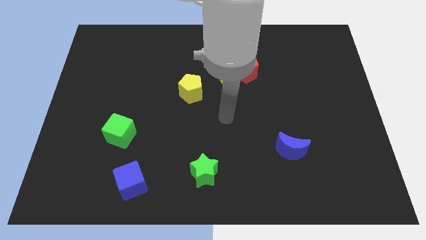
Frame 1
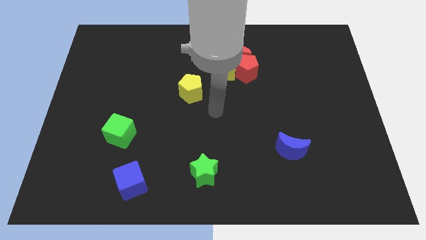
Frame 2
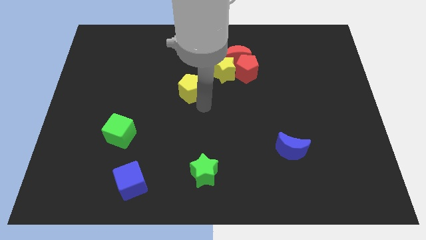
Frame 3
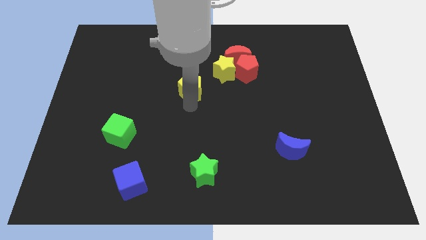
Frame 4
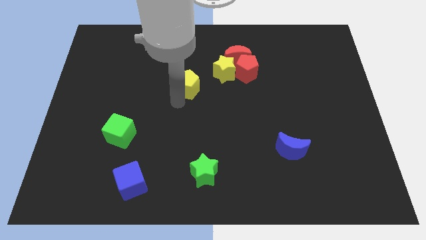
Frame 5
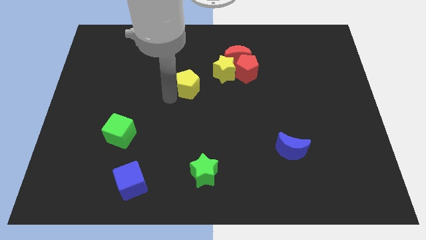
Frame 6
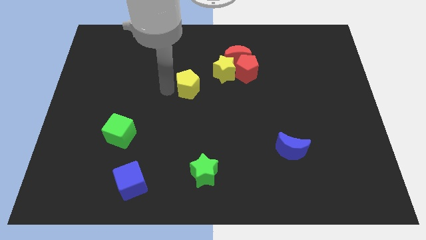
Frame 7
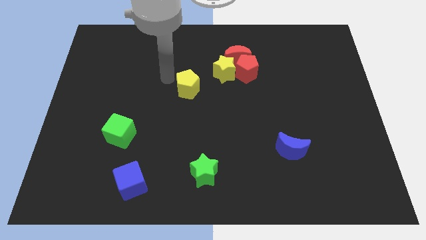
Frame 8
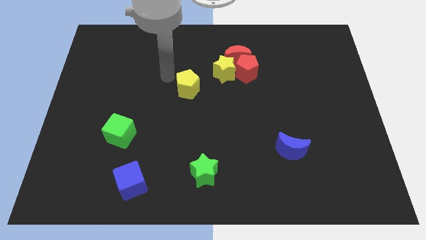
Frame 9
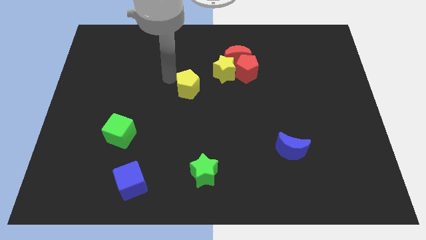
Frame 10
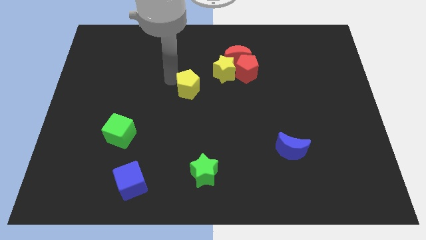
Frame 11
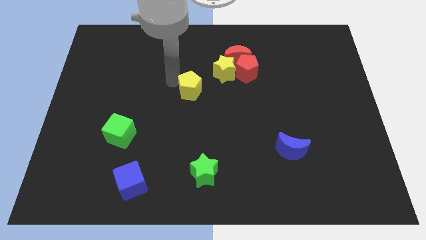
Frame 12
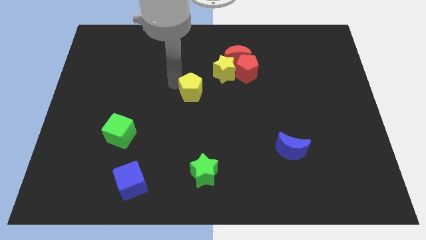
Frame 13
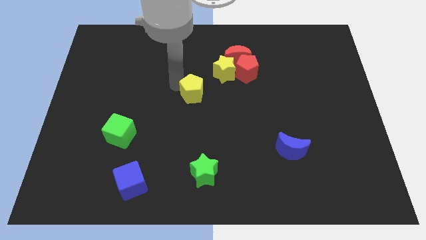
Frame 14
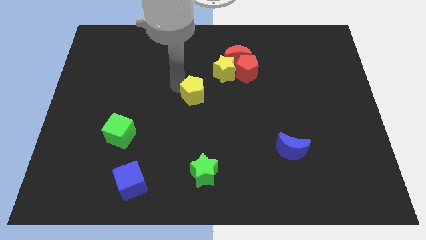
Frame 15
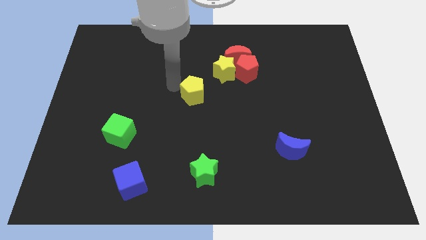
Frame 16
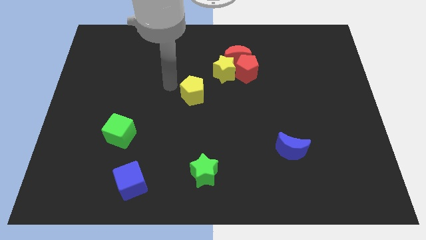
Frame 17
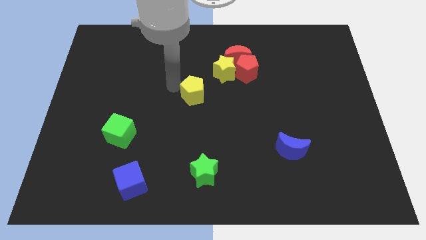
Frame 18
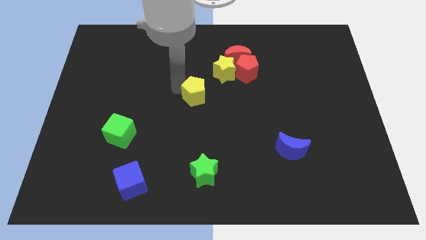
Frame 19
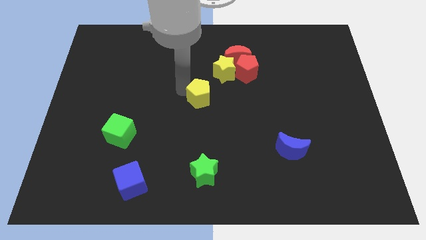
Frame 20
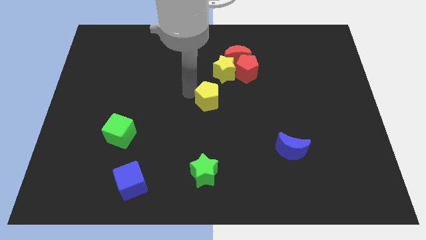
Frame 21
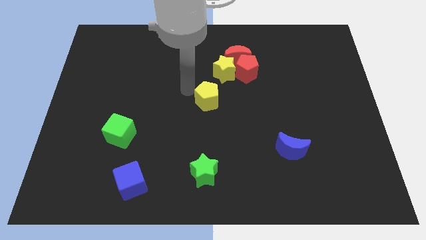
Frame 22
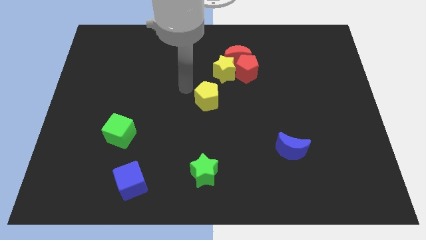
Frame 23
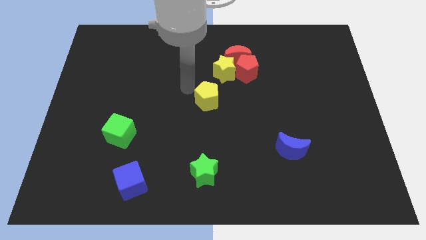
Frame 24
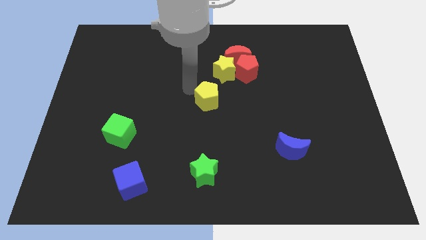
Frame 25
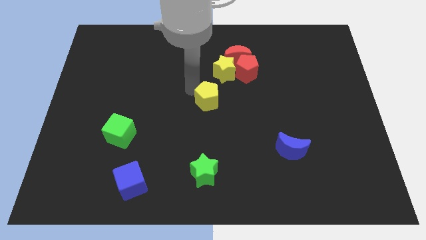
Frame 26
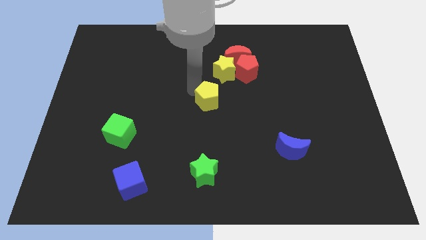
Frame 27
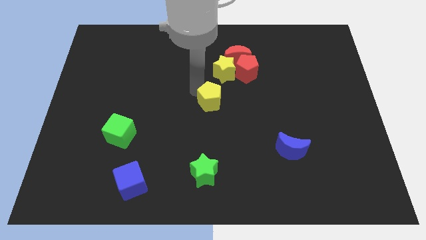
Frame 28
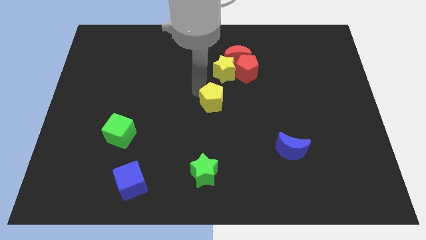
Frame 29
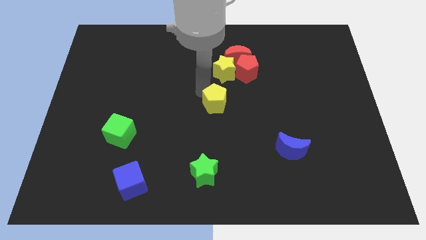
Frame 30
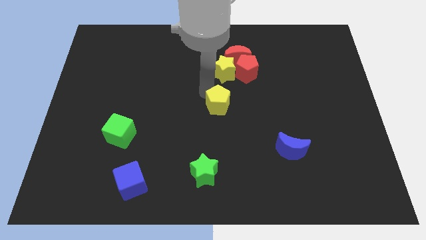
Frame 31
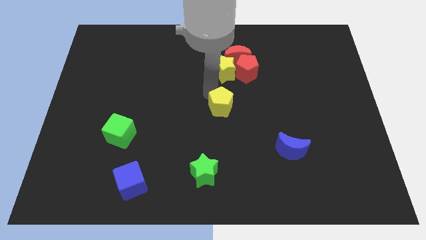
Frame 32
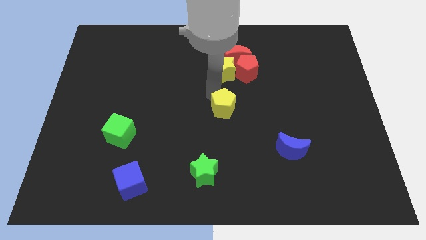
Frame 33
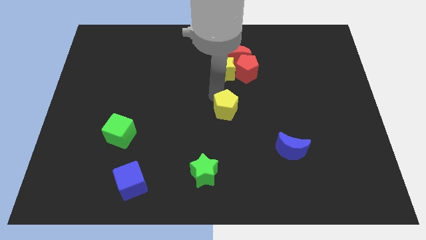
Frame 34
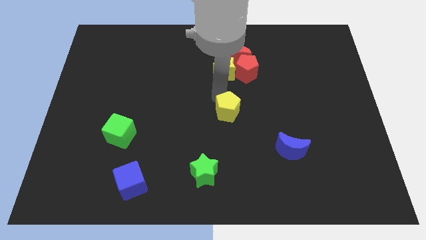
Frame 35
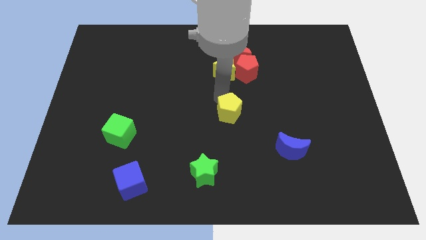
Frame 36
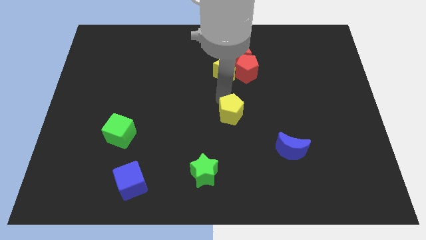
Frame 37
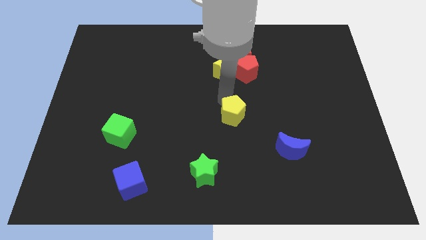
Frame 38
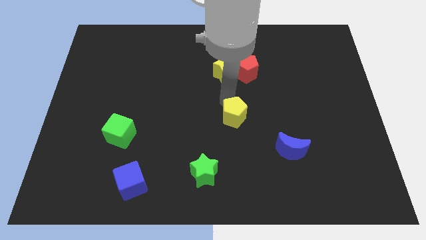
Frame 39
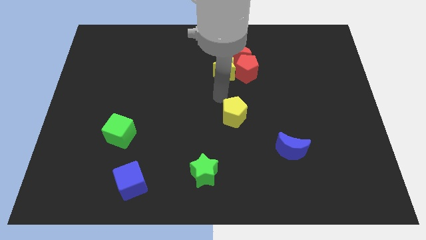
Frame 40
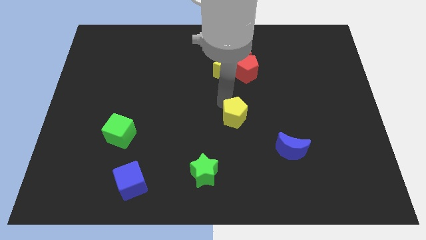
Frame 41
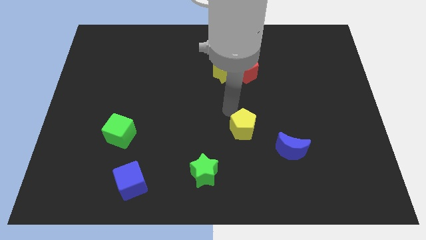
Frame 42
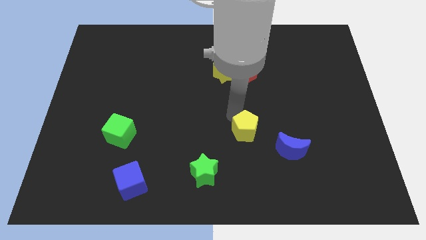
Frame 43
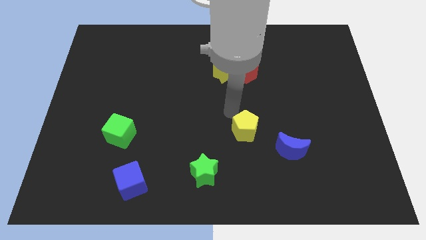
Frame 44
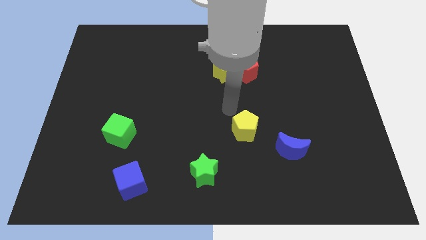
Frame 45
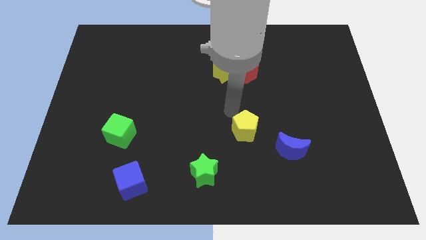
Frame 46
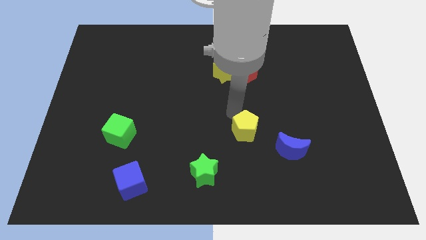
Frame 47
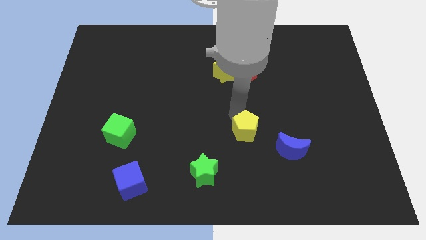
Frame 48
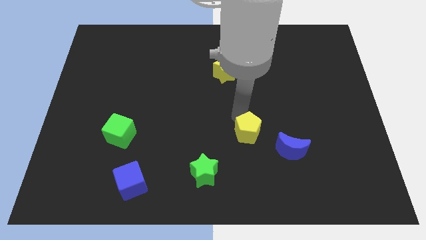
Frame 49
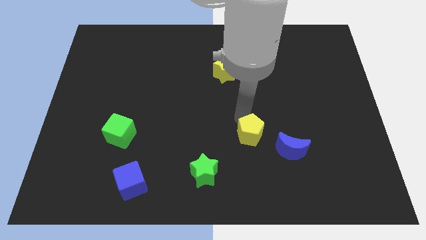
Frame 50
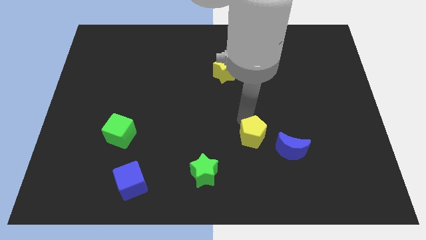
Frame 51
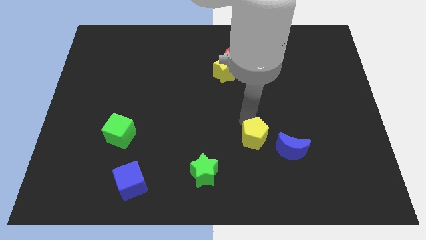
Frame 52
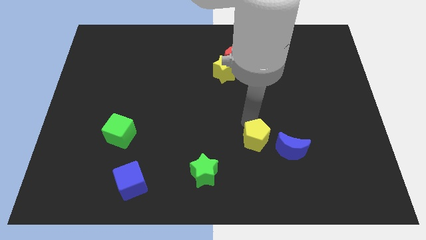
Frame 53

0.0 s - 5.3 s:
slide the yellow pentagon diagonally down and to the right

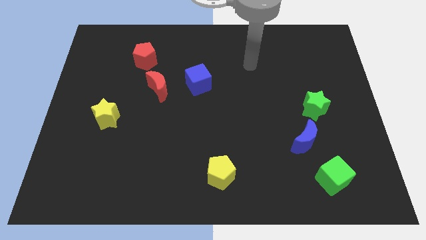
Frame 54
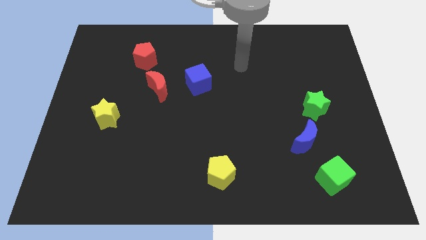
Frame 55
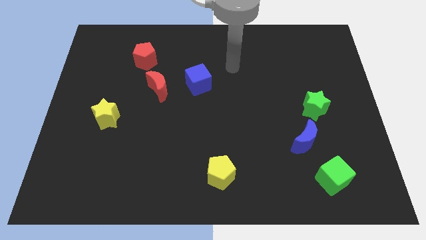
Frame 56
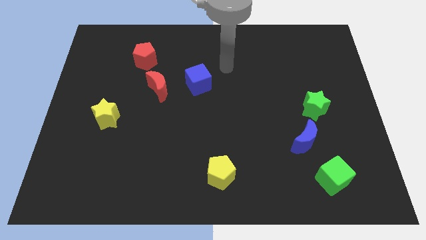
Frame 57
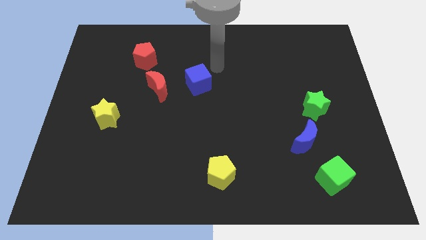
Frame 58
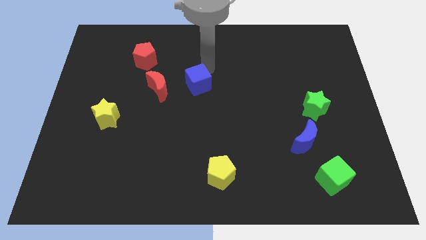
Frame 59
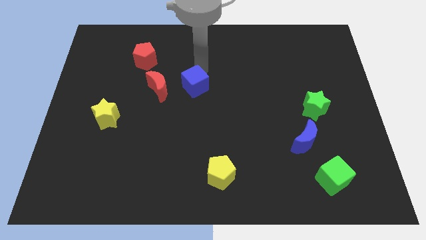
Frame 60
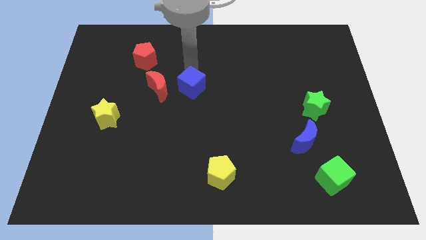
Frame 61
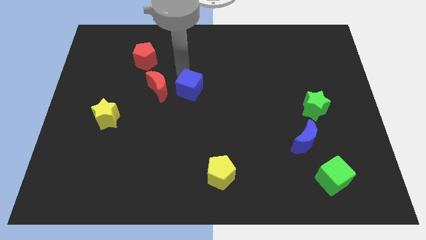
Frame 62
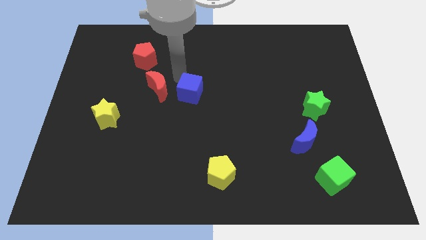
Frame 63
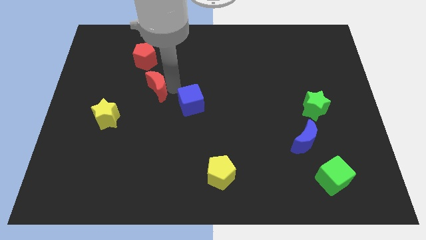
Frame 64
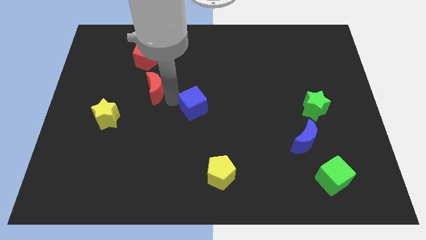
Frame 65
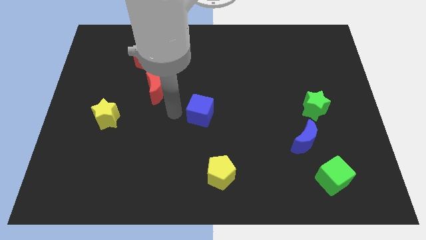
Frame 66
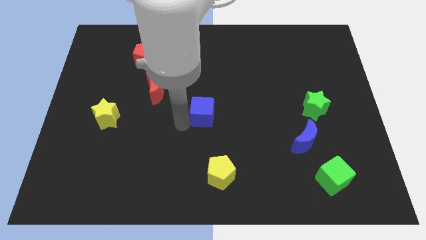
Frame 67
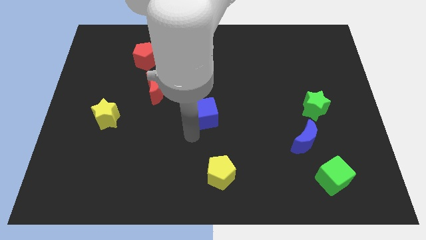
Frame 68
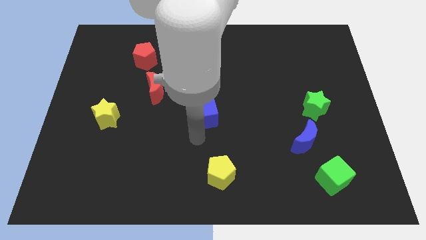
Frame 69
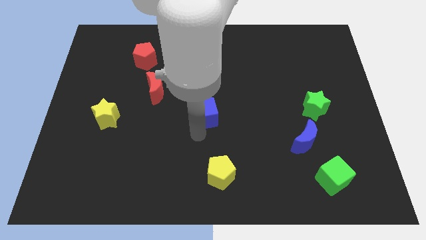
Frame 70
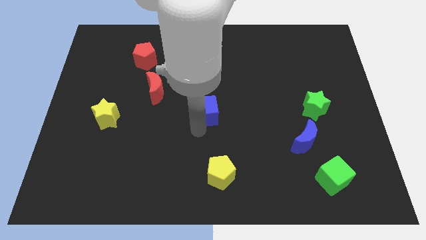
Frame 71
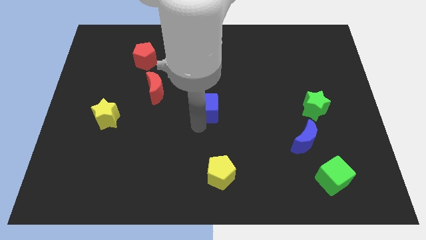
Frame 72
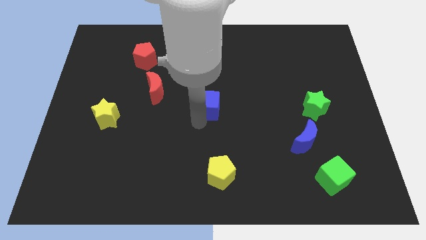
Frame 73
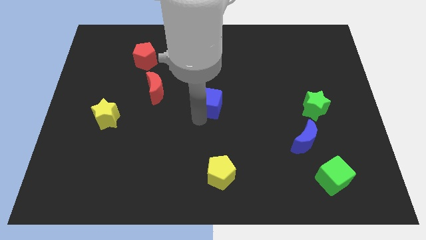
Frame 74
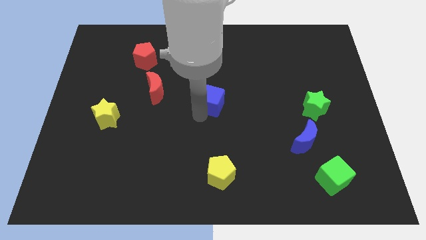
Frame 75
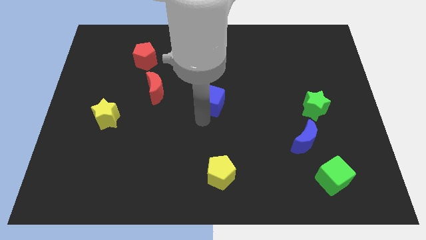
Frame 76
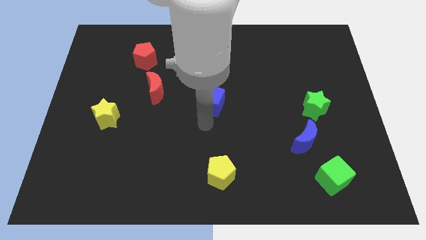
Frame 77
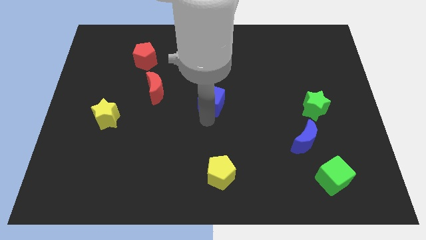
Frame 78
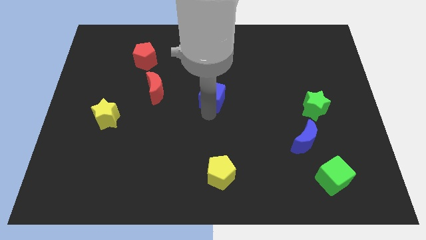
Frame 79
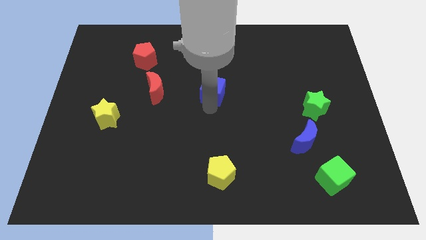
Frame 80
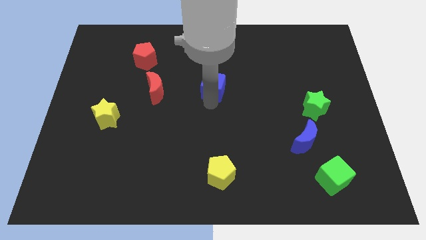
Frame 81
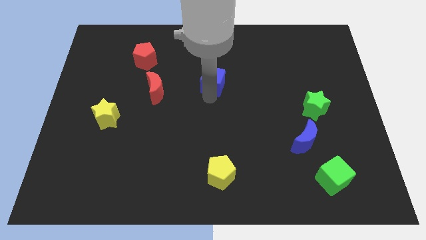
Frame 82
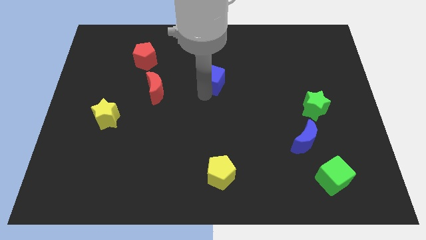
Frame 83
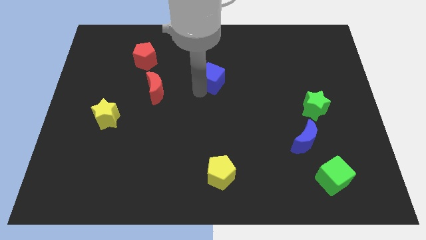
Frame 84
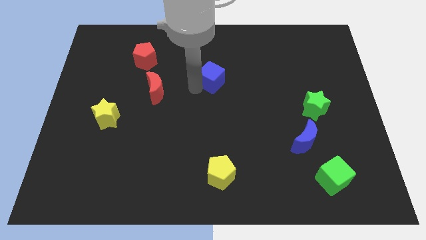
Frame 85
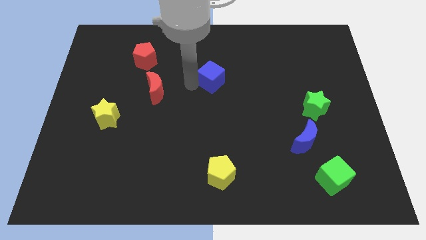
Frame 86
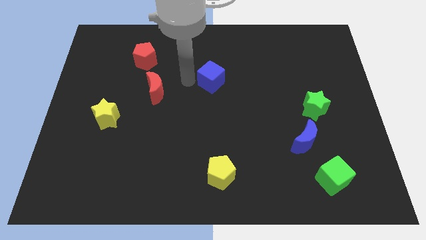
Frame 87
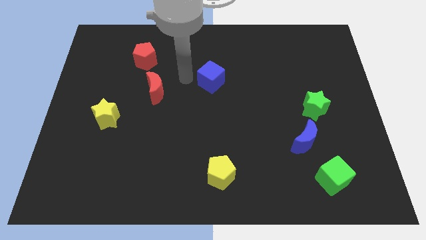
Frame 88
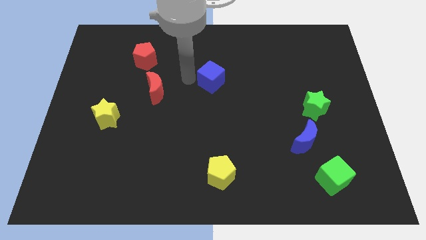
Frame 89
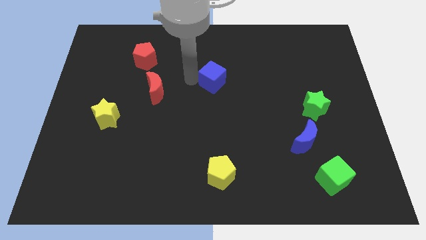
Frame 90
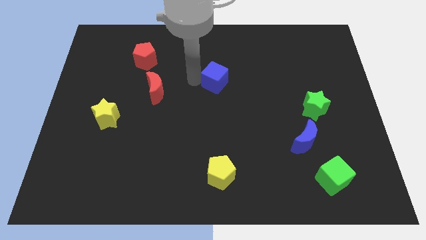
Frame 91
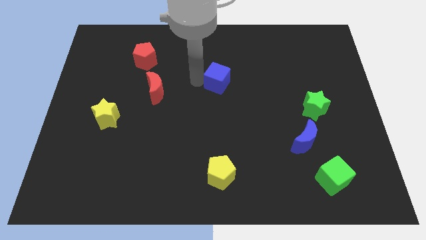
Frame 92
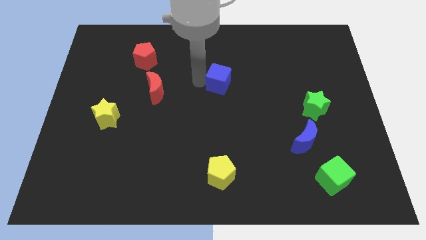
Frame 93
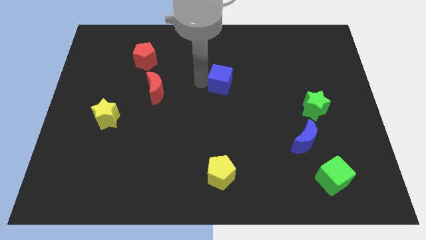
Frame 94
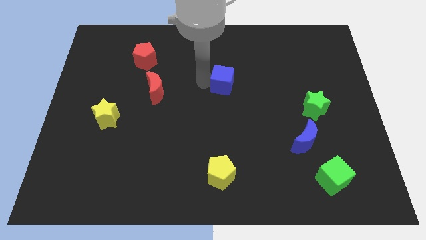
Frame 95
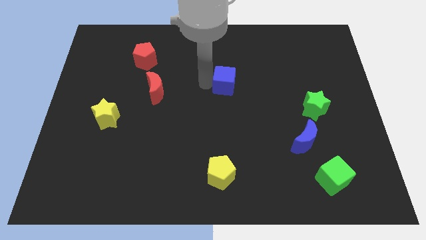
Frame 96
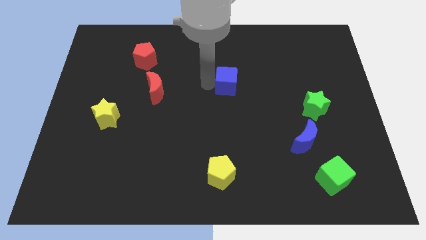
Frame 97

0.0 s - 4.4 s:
move the blue cube to the right a little
